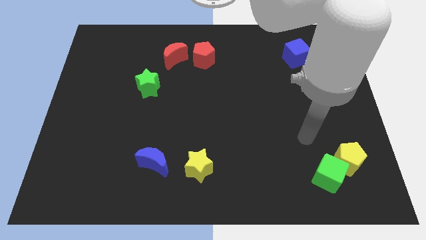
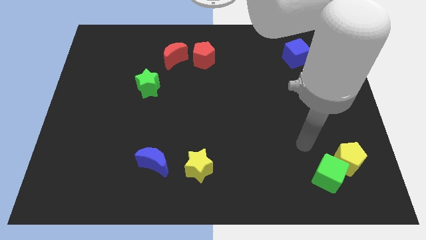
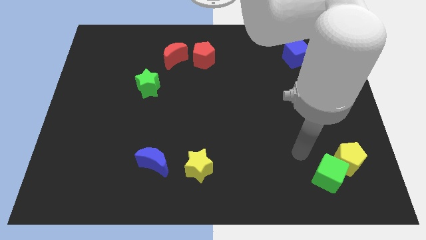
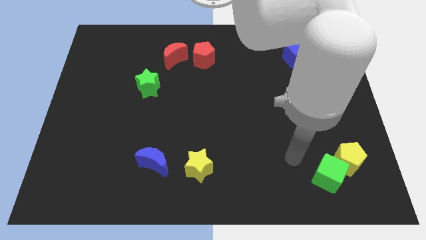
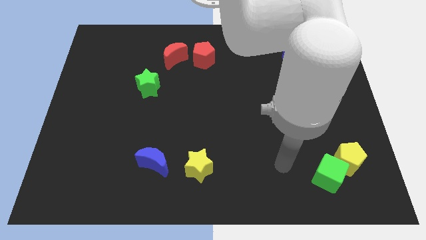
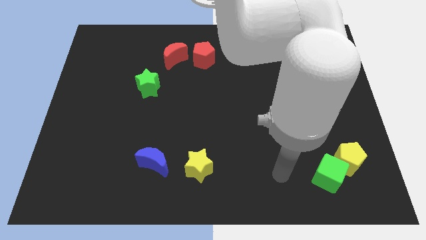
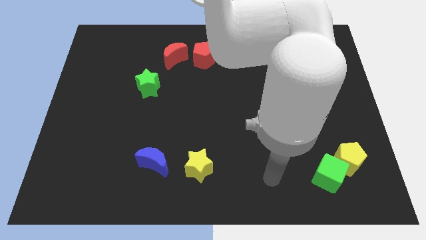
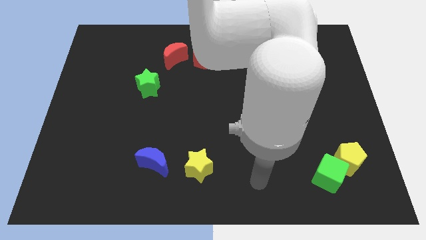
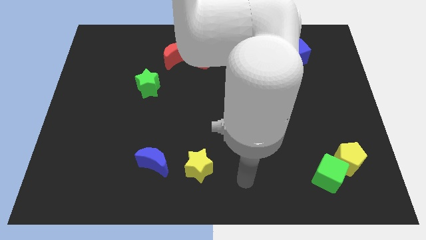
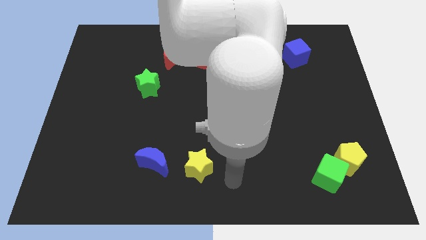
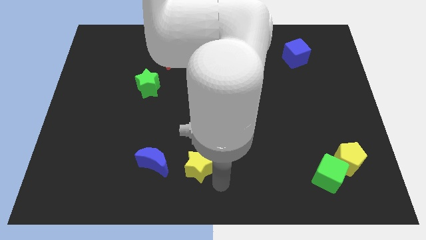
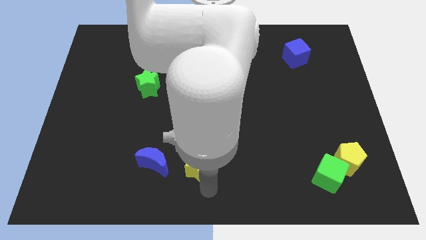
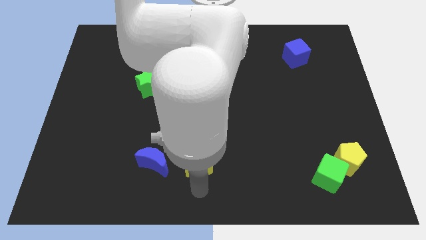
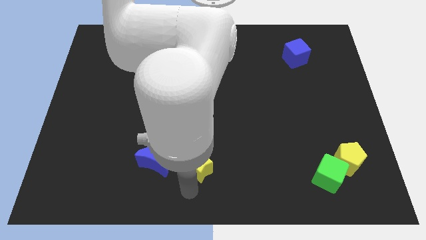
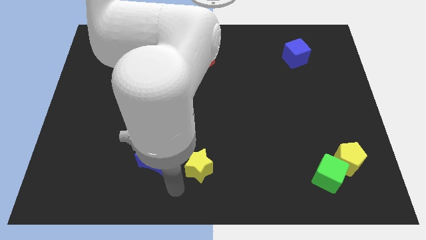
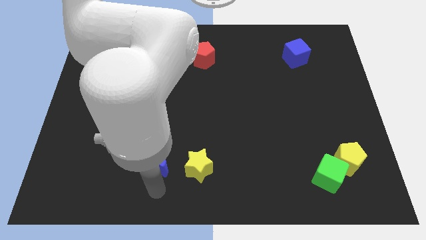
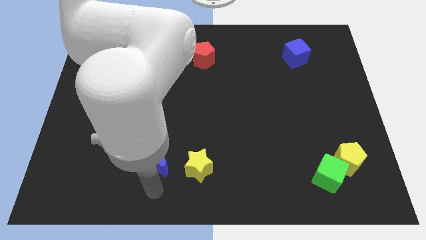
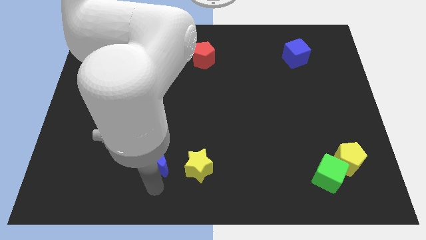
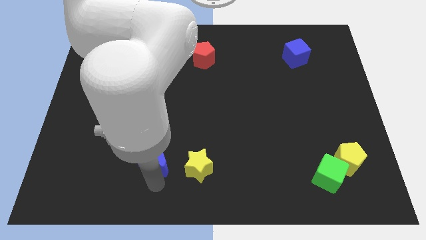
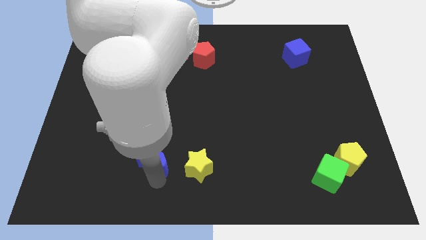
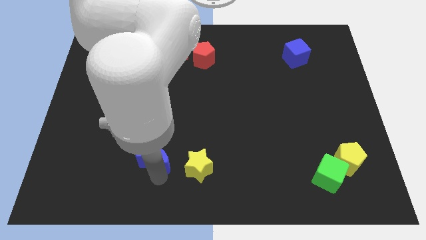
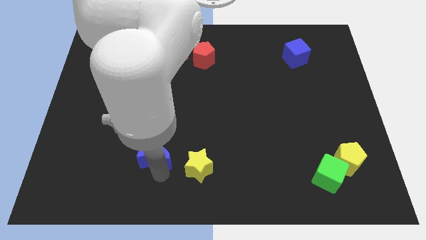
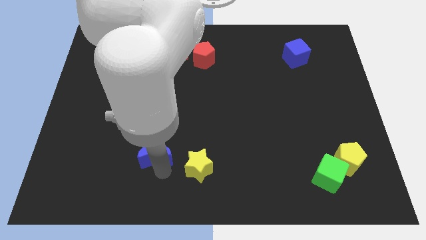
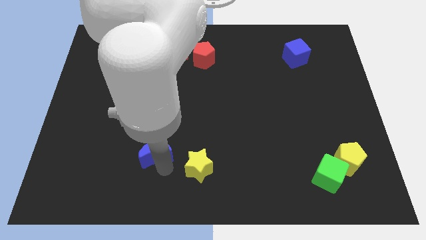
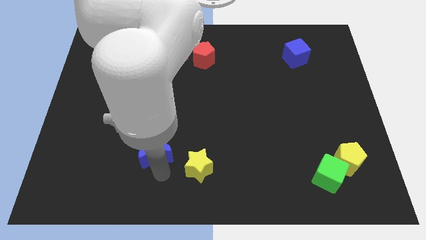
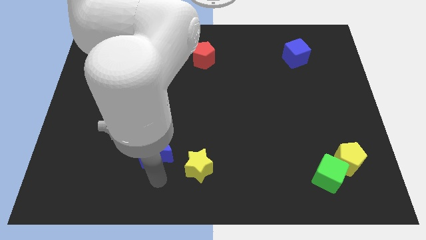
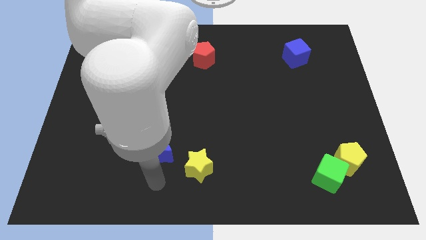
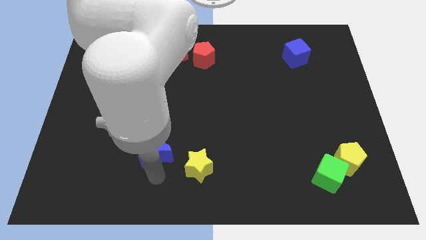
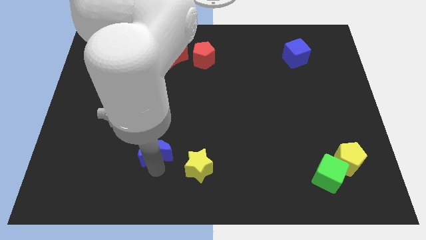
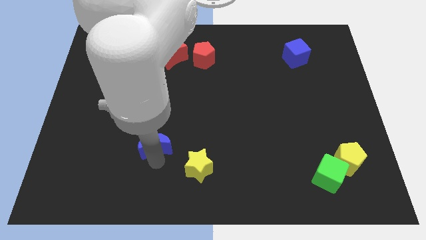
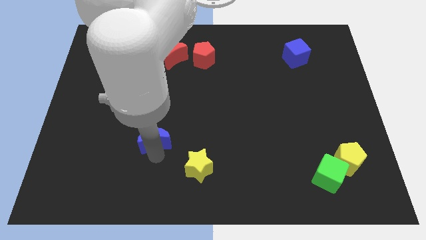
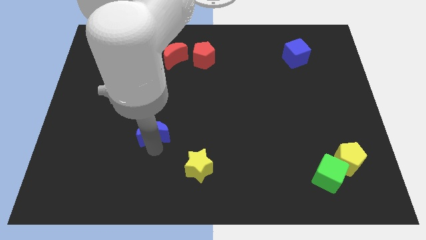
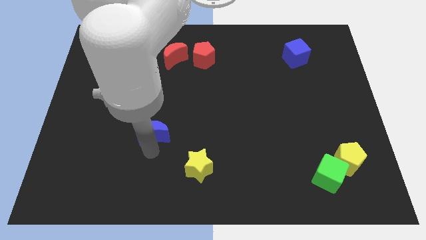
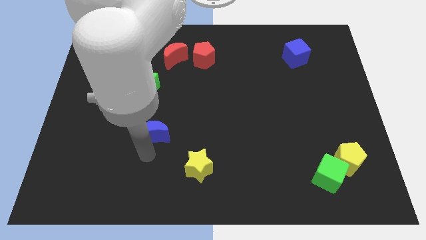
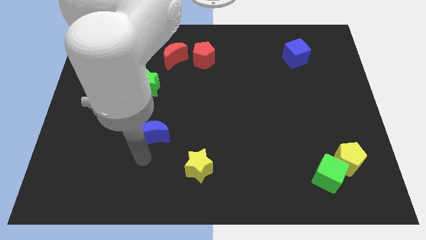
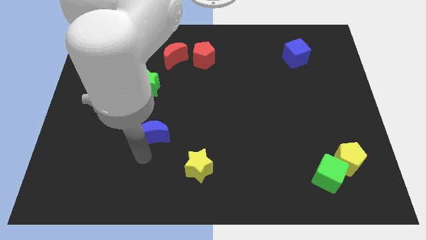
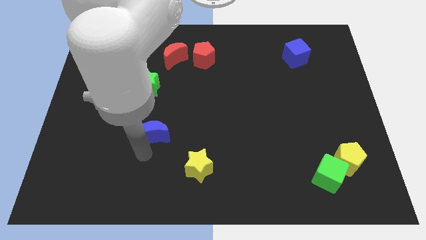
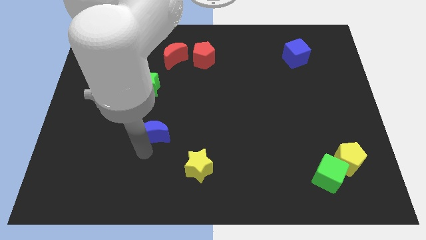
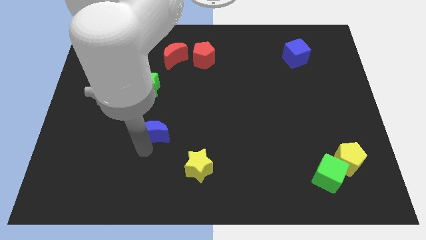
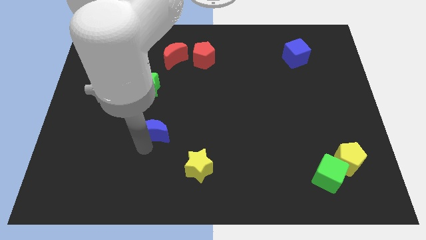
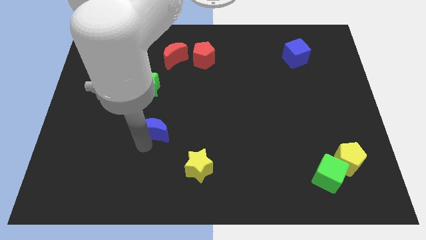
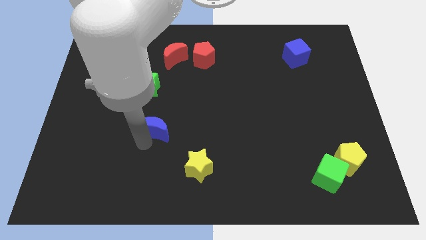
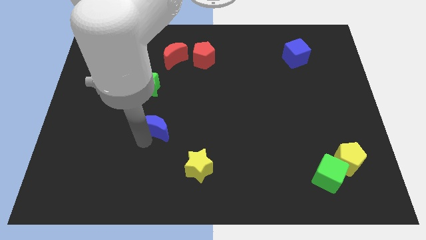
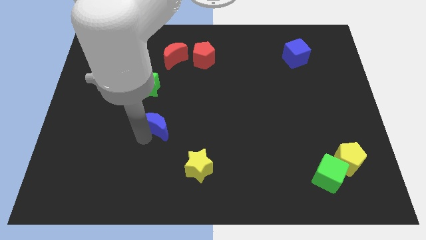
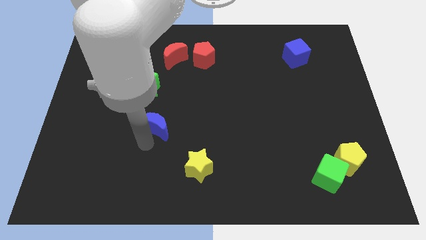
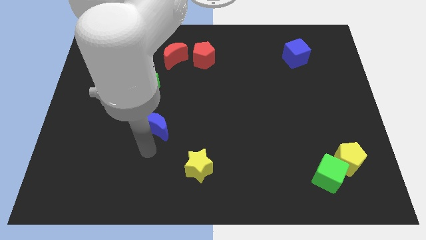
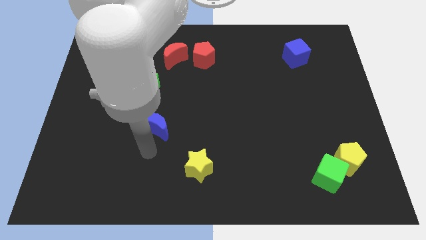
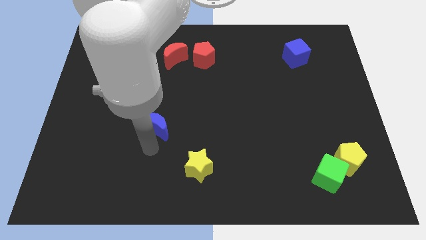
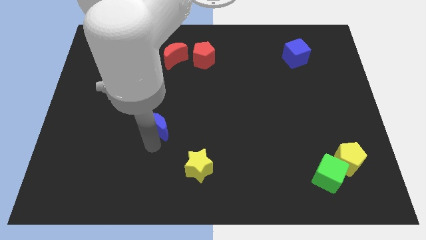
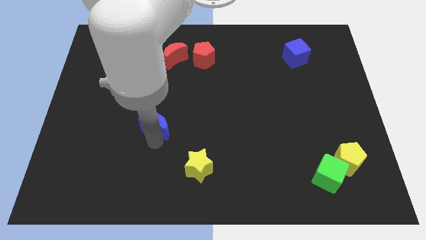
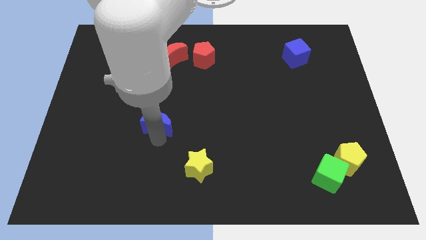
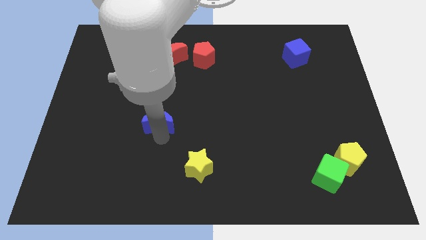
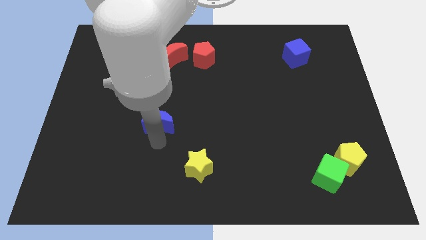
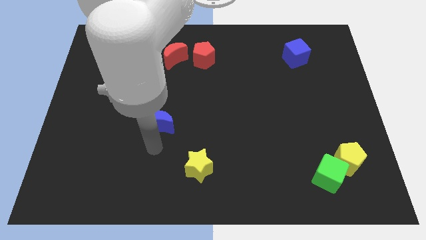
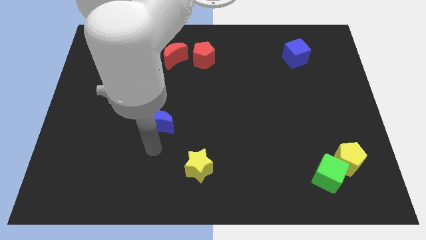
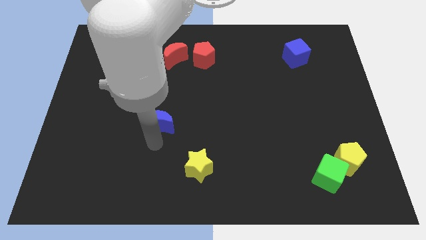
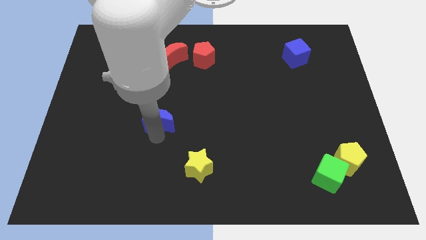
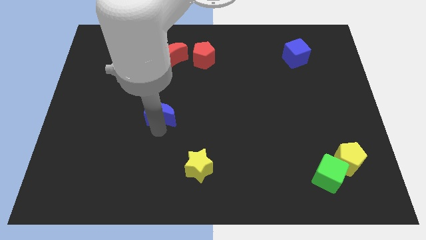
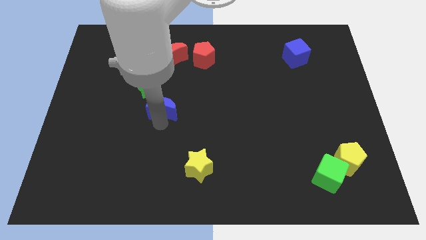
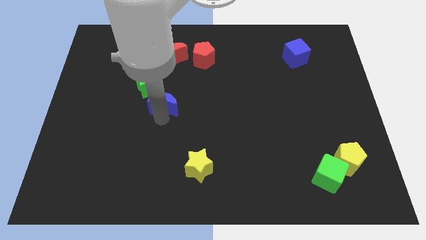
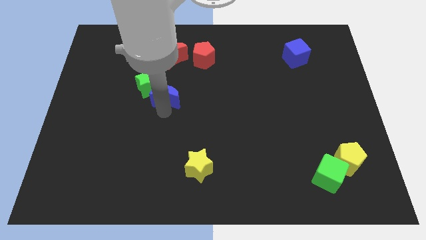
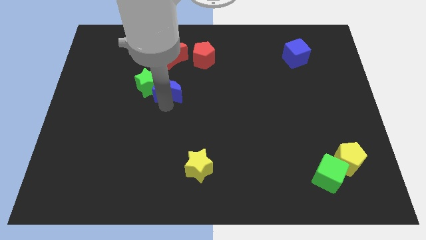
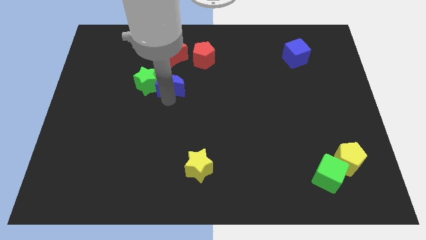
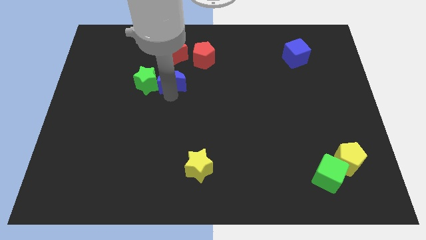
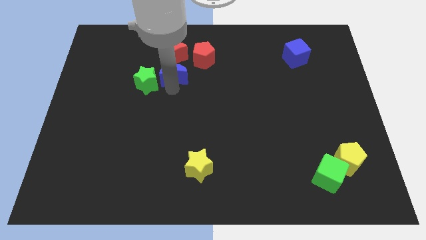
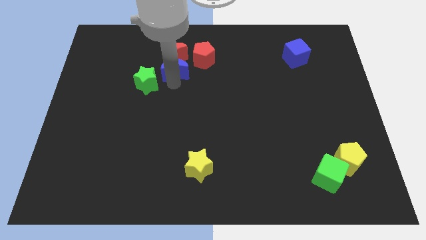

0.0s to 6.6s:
slide the blue moon next to the red moon

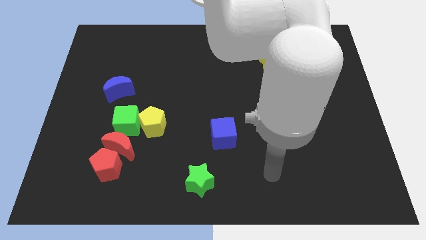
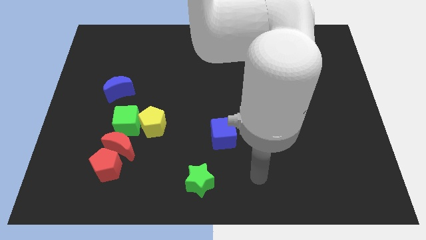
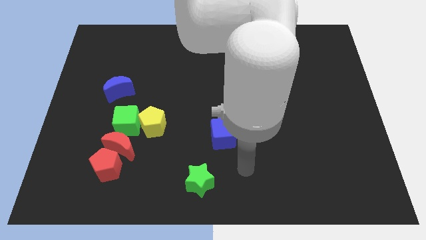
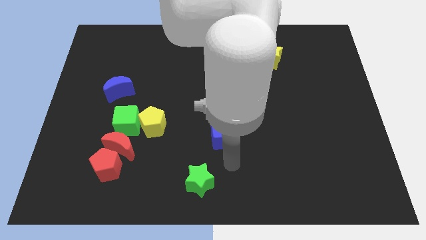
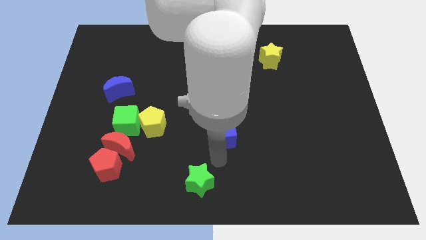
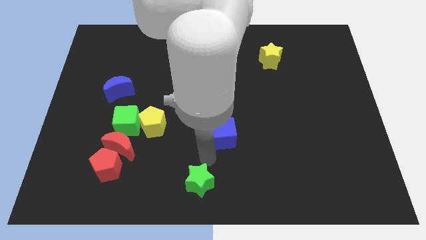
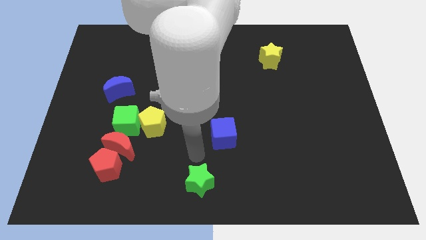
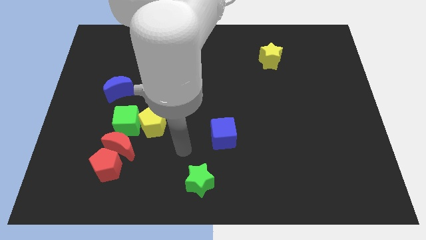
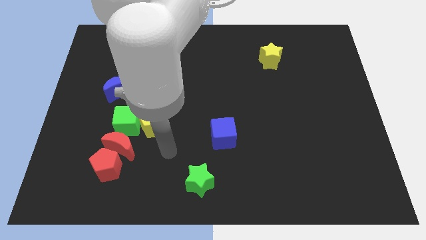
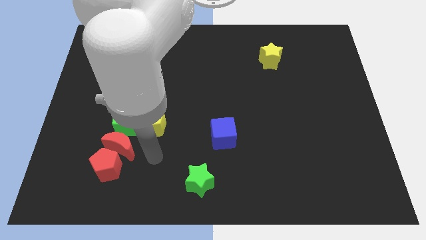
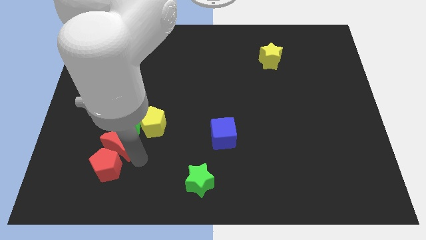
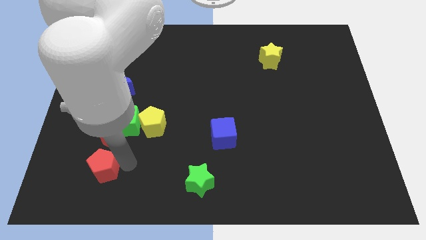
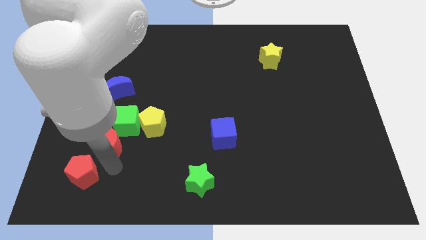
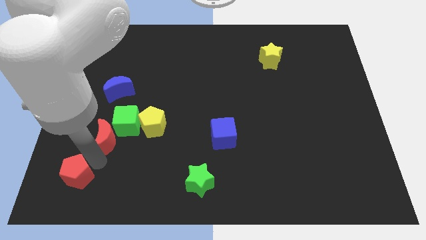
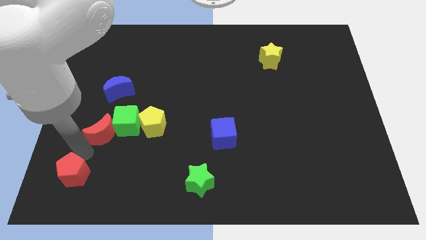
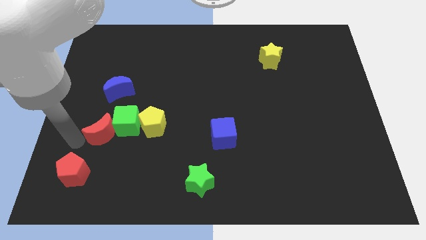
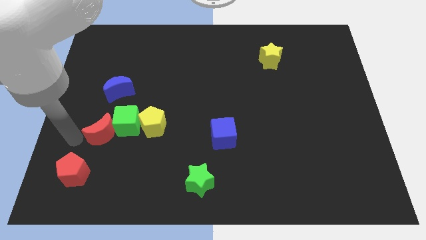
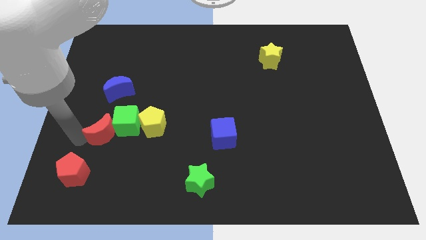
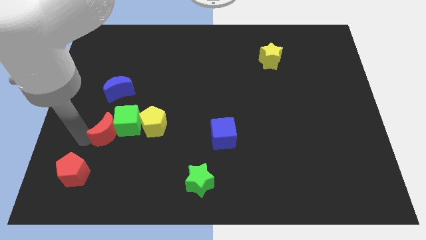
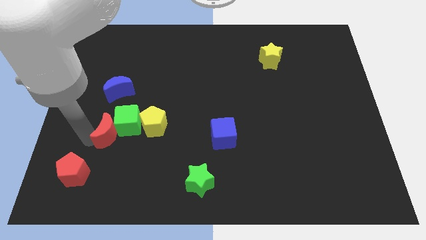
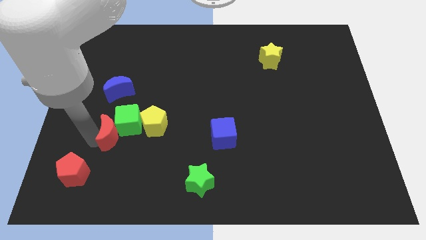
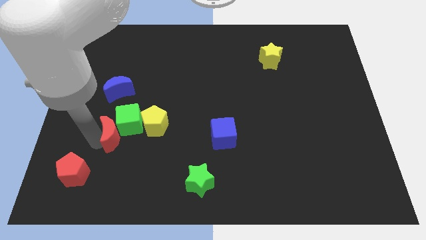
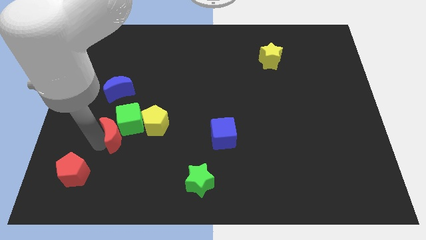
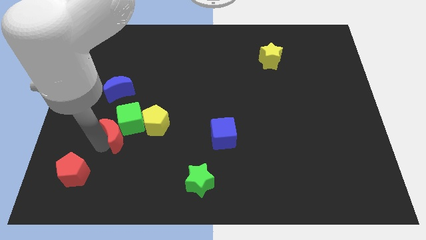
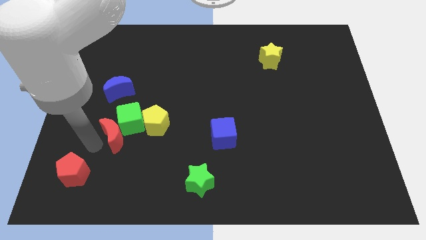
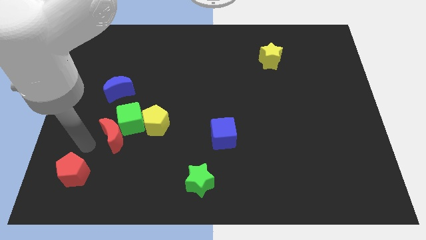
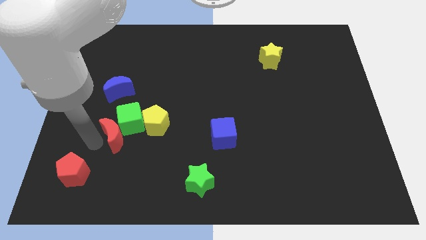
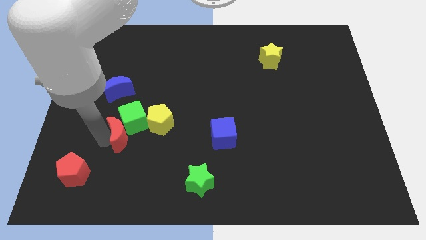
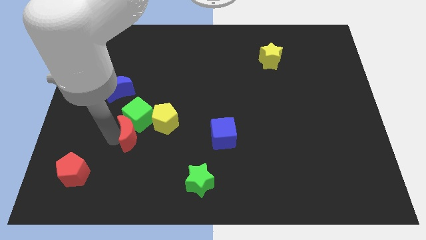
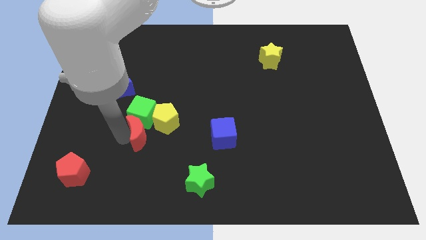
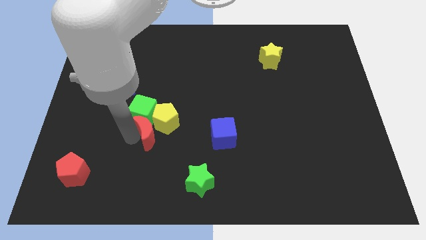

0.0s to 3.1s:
put the red moon next to the yellow pentagon
